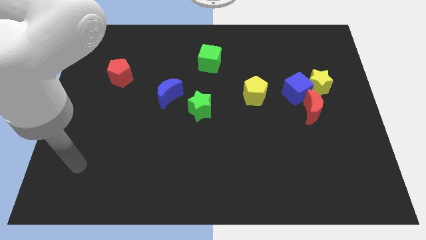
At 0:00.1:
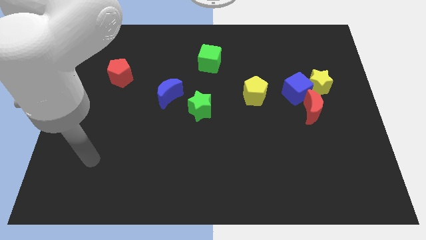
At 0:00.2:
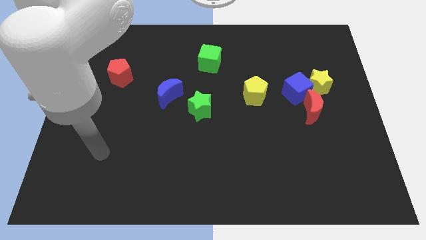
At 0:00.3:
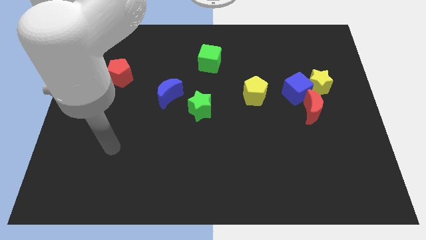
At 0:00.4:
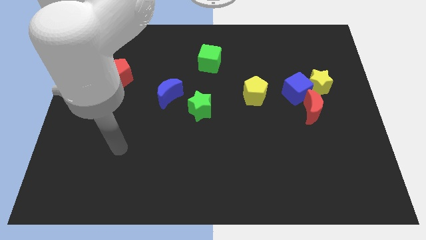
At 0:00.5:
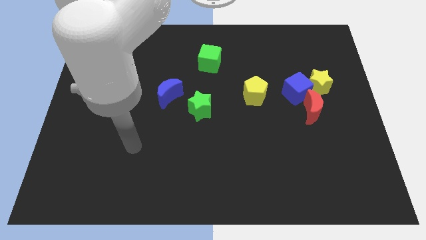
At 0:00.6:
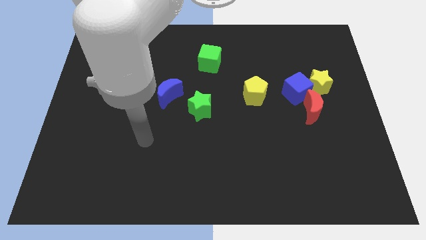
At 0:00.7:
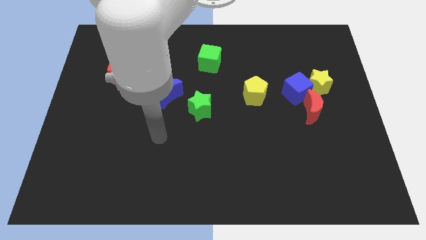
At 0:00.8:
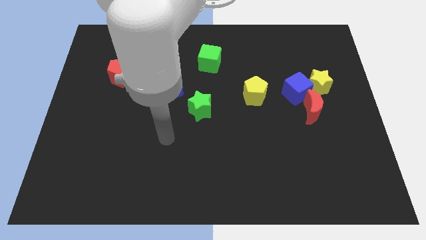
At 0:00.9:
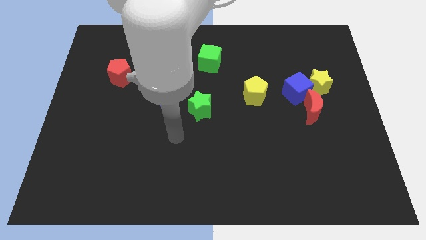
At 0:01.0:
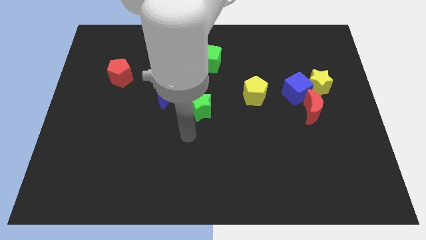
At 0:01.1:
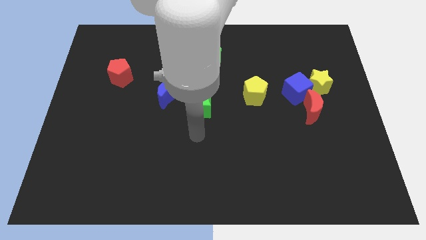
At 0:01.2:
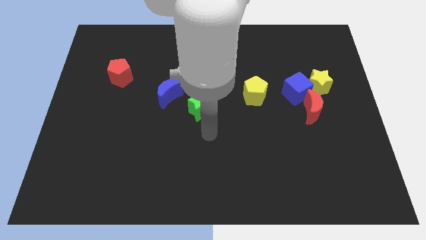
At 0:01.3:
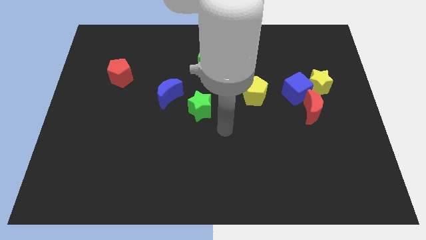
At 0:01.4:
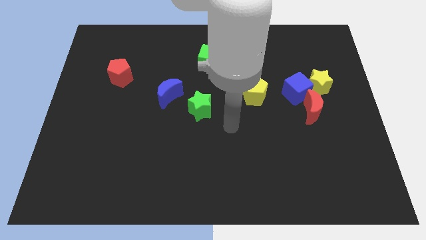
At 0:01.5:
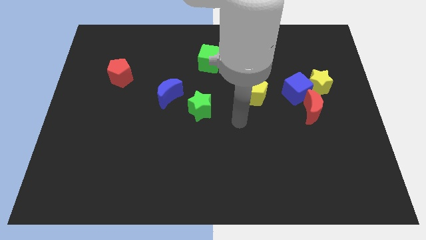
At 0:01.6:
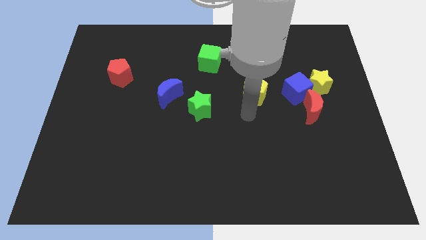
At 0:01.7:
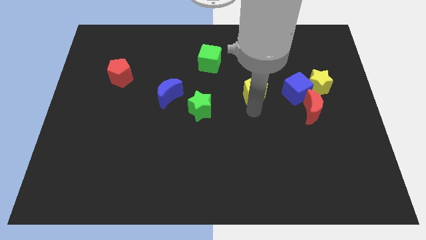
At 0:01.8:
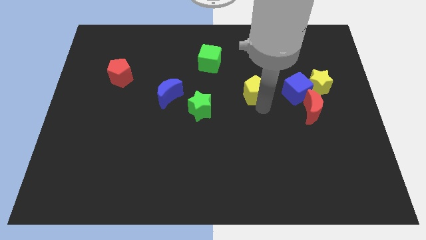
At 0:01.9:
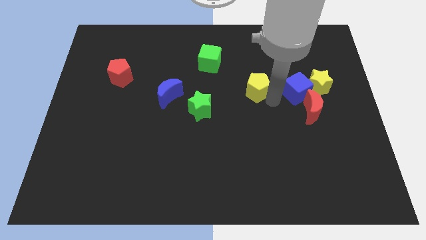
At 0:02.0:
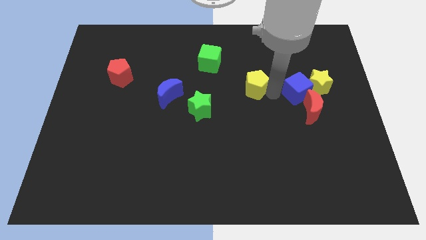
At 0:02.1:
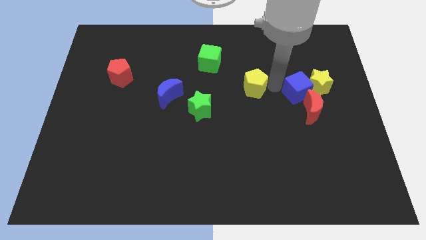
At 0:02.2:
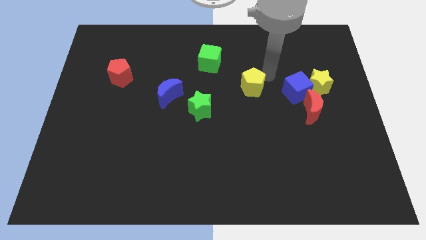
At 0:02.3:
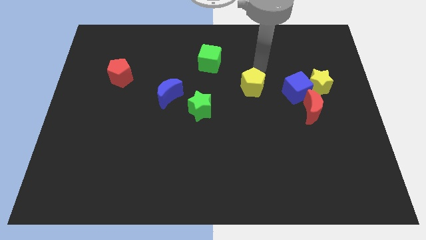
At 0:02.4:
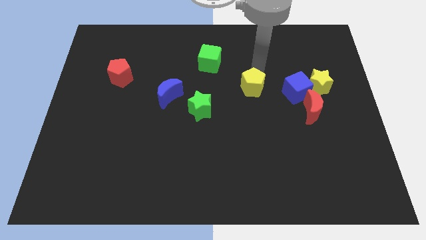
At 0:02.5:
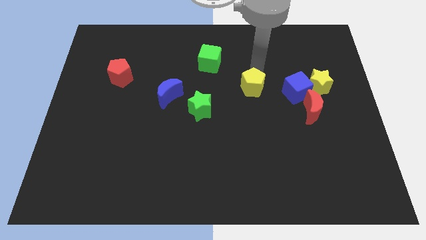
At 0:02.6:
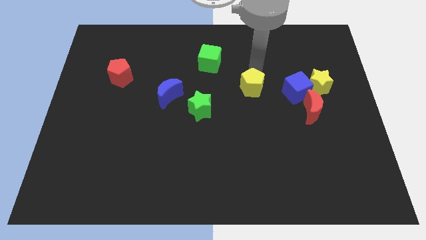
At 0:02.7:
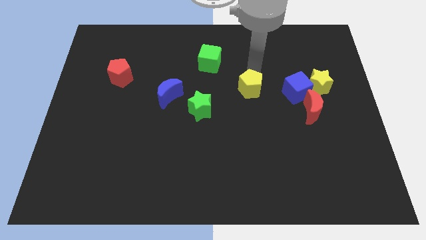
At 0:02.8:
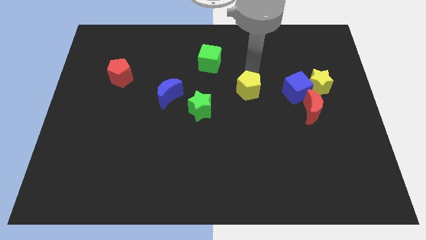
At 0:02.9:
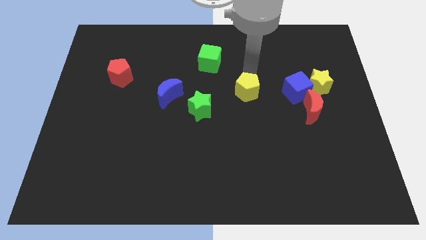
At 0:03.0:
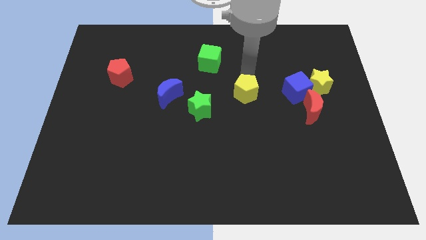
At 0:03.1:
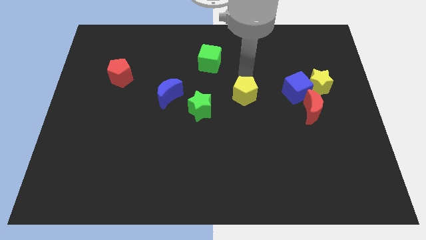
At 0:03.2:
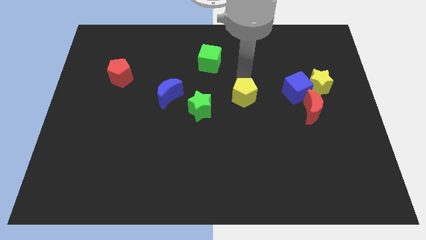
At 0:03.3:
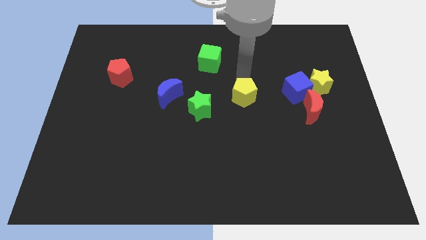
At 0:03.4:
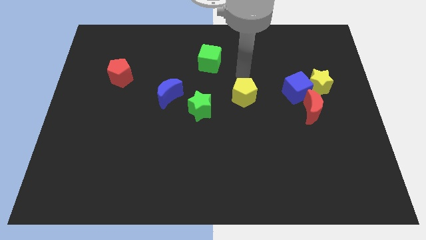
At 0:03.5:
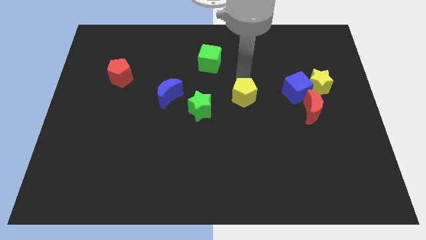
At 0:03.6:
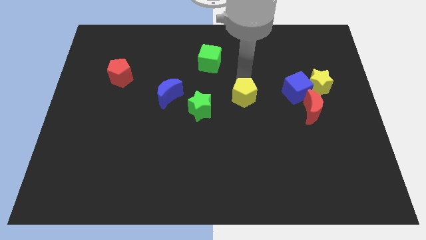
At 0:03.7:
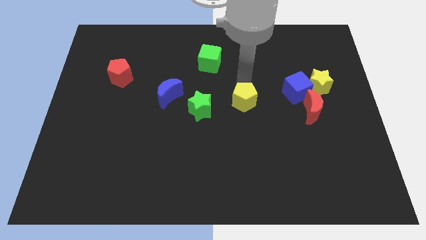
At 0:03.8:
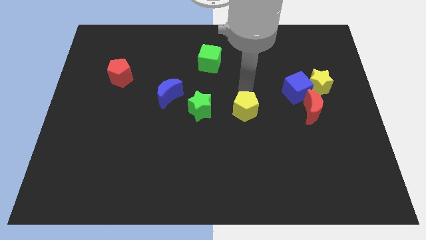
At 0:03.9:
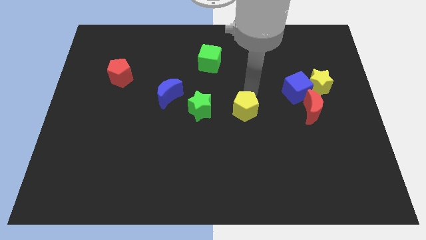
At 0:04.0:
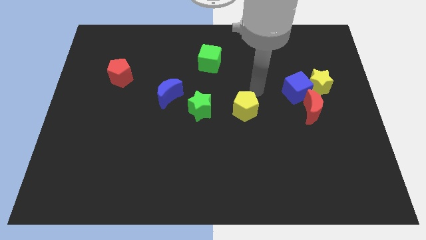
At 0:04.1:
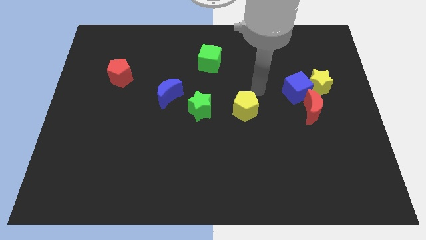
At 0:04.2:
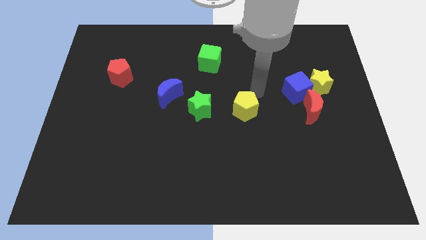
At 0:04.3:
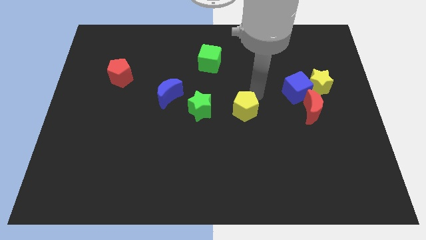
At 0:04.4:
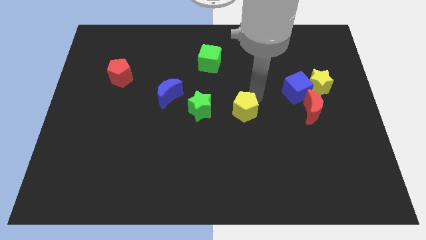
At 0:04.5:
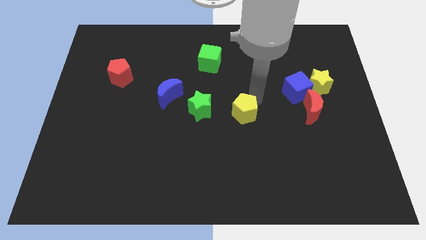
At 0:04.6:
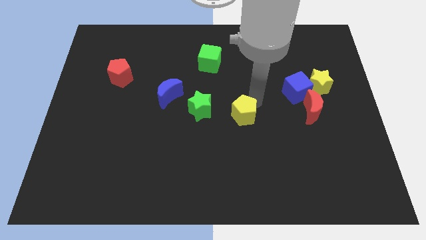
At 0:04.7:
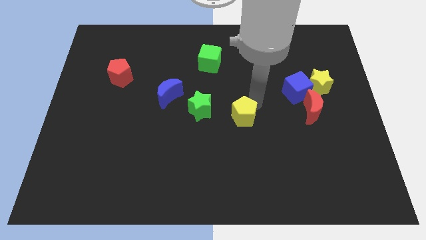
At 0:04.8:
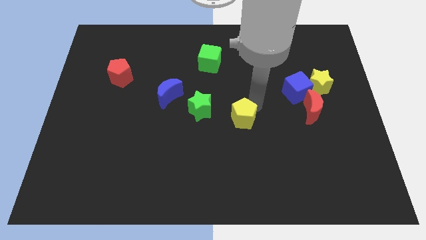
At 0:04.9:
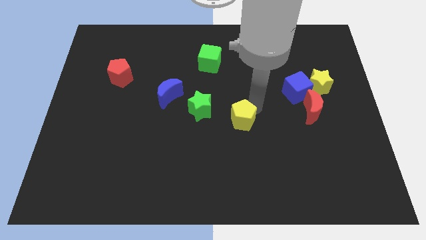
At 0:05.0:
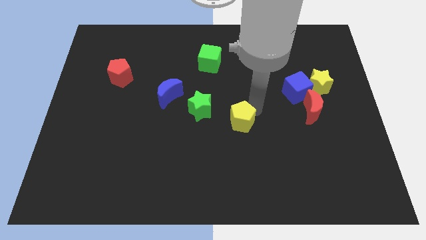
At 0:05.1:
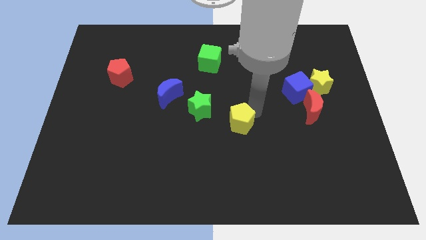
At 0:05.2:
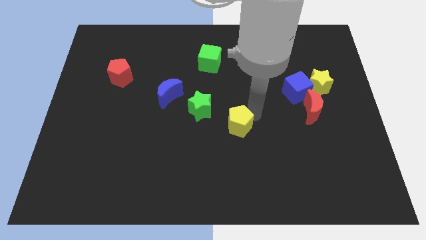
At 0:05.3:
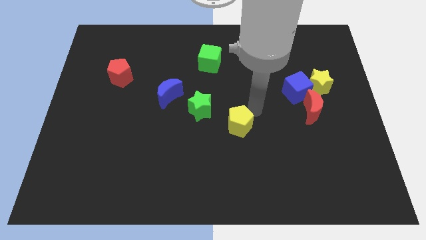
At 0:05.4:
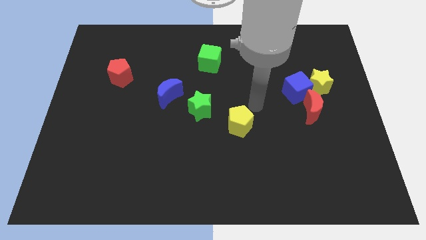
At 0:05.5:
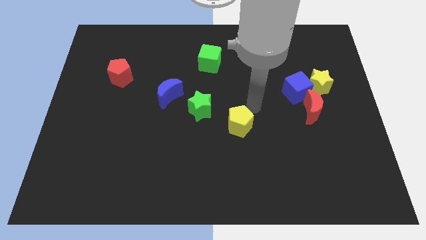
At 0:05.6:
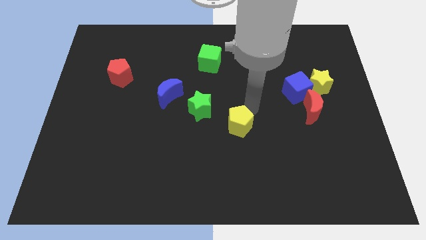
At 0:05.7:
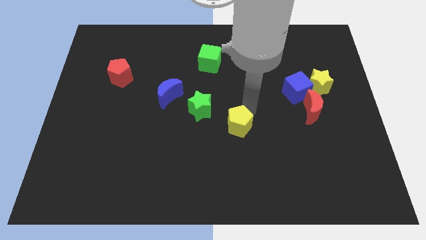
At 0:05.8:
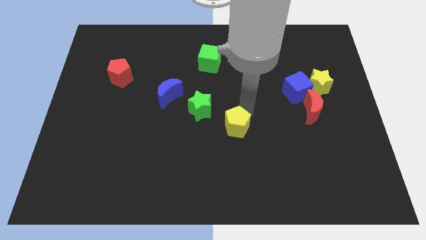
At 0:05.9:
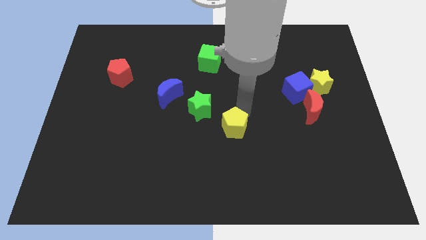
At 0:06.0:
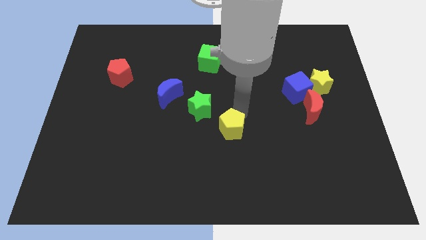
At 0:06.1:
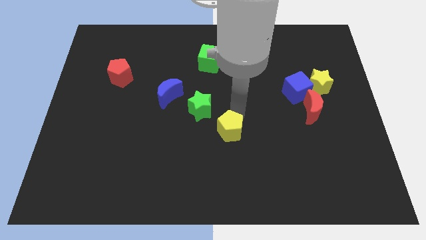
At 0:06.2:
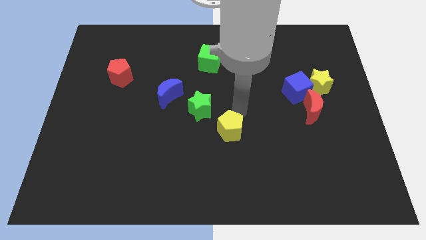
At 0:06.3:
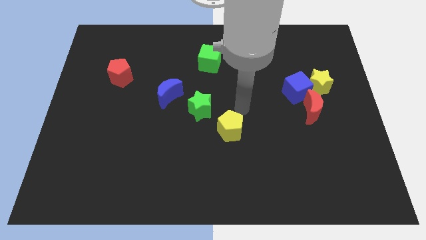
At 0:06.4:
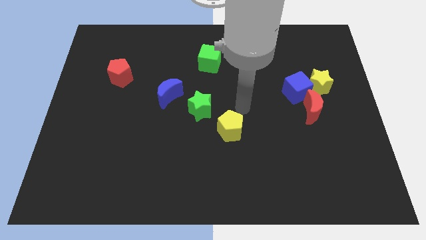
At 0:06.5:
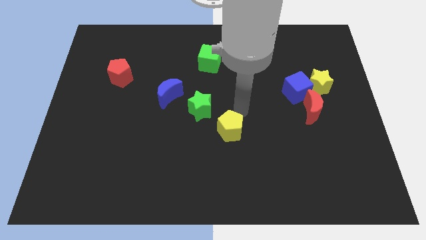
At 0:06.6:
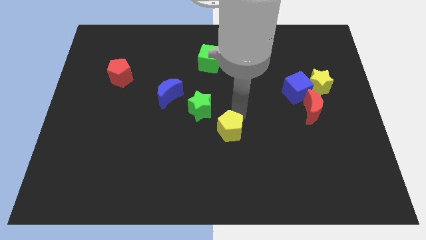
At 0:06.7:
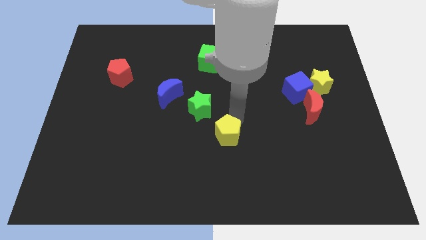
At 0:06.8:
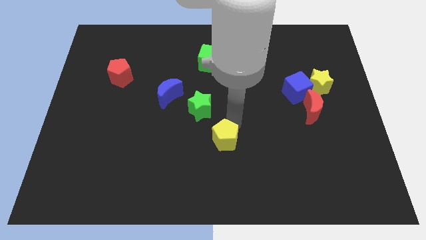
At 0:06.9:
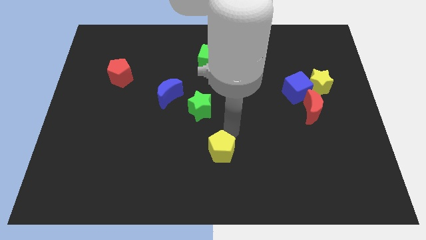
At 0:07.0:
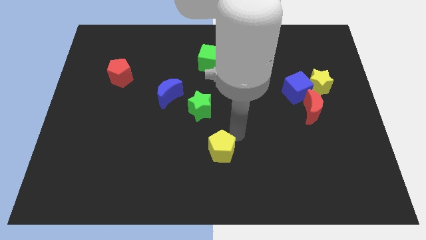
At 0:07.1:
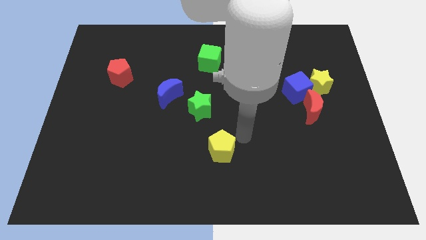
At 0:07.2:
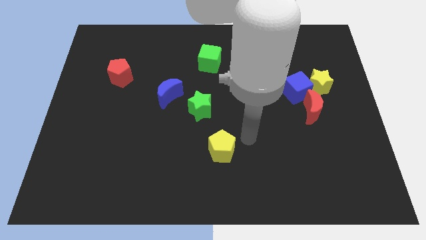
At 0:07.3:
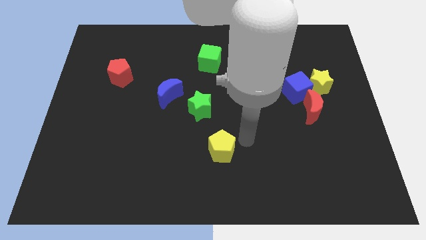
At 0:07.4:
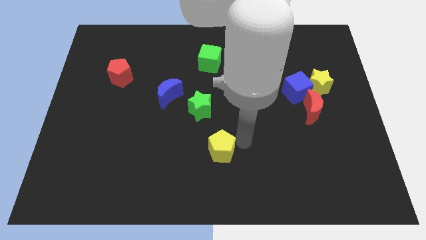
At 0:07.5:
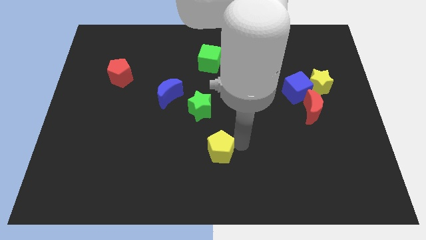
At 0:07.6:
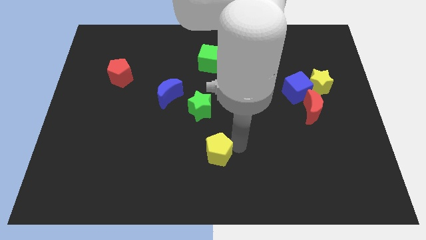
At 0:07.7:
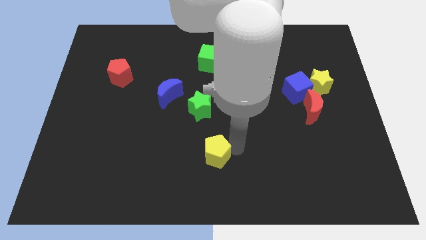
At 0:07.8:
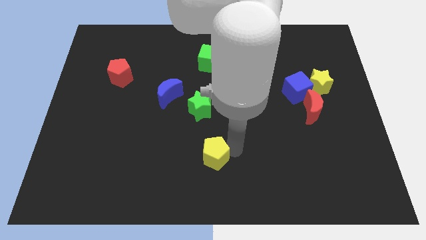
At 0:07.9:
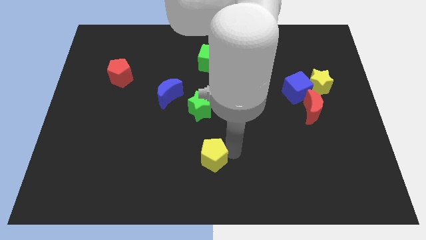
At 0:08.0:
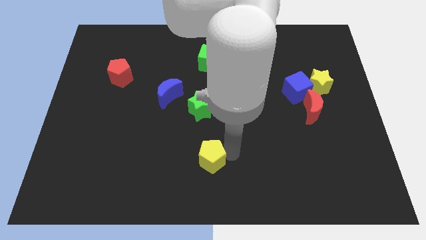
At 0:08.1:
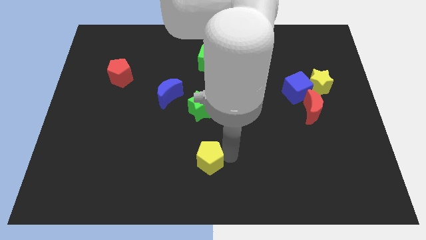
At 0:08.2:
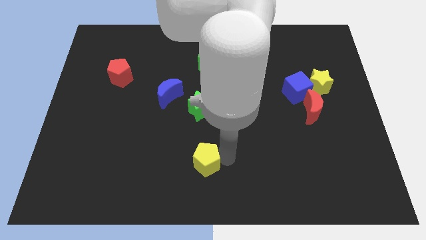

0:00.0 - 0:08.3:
push the yellow pentagon diagonally down and to the left
